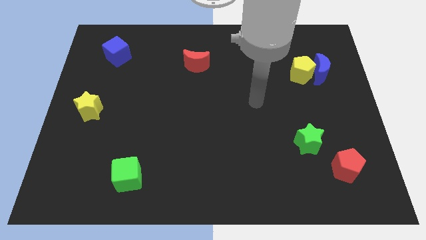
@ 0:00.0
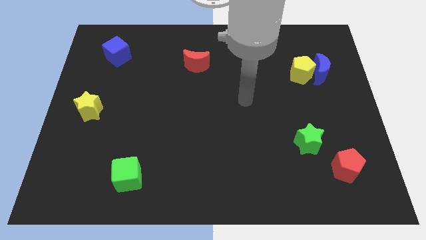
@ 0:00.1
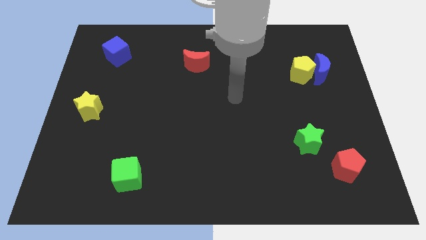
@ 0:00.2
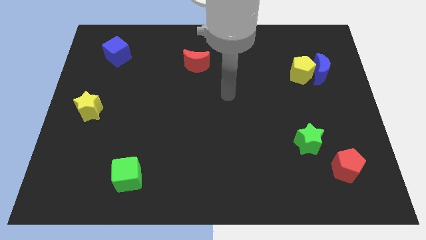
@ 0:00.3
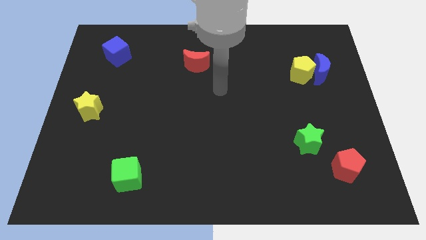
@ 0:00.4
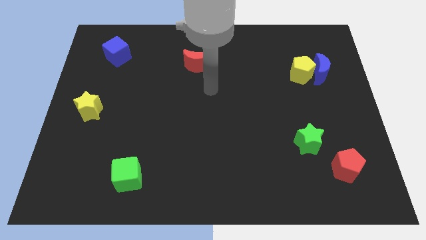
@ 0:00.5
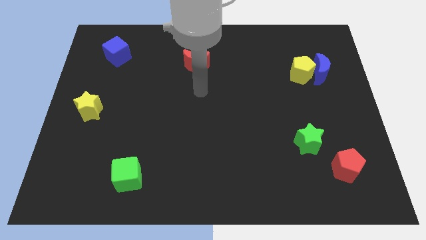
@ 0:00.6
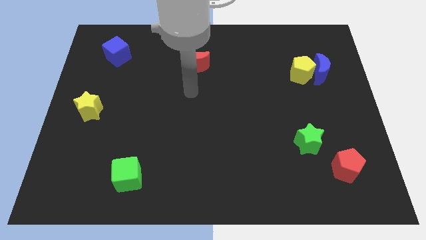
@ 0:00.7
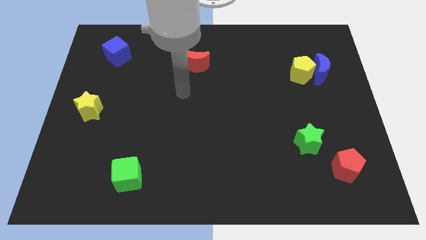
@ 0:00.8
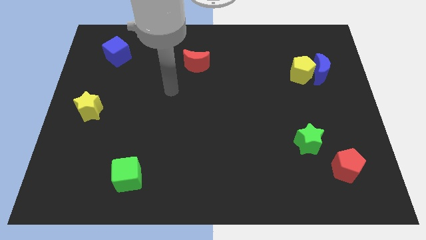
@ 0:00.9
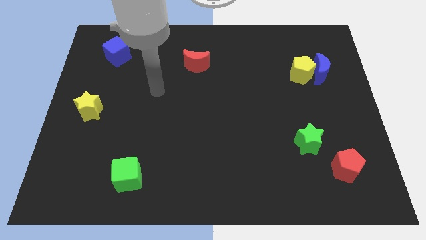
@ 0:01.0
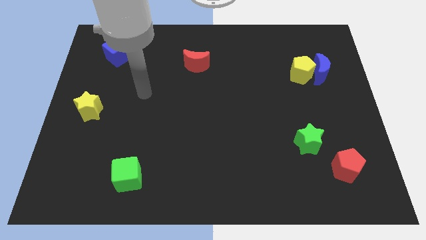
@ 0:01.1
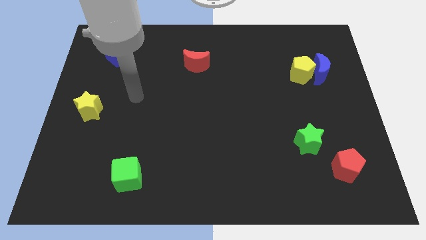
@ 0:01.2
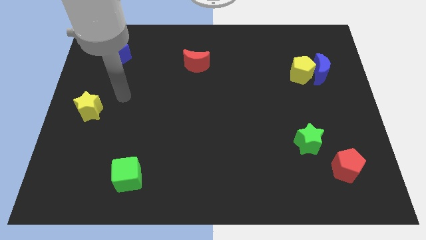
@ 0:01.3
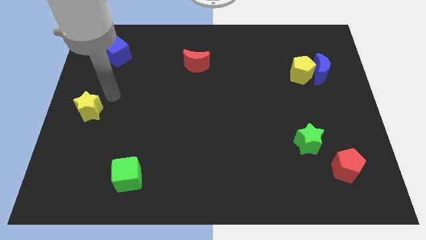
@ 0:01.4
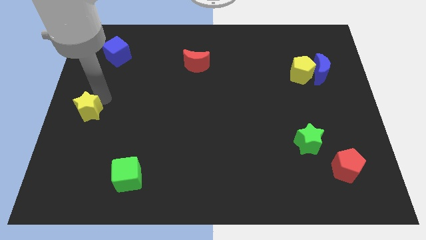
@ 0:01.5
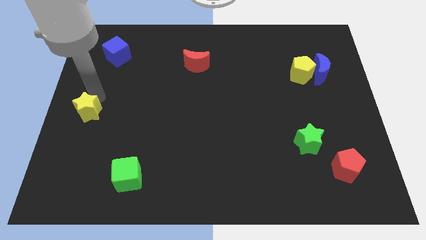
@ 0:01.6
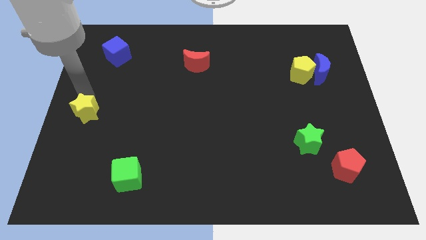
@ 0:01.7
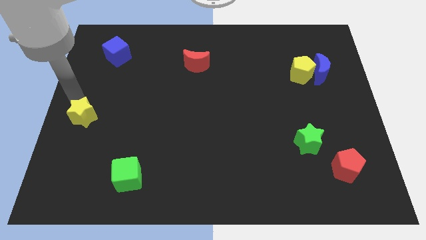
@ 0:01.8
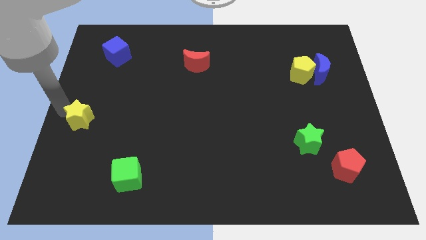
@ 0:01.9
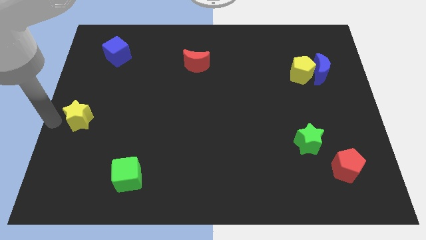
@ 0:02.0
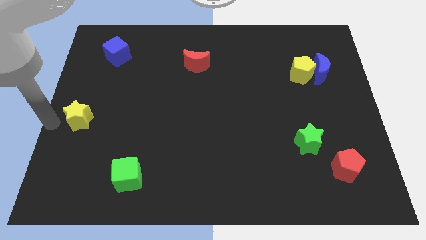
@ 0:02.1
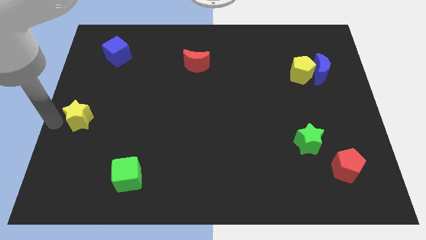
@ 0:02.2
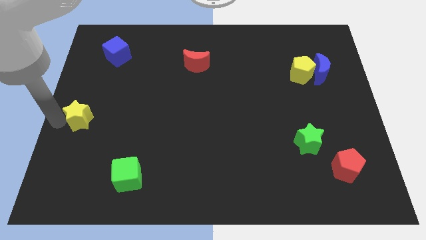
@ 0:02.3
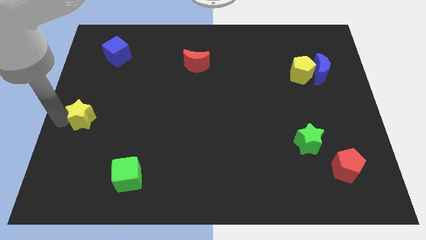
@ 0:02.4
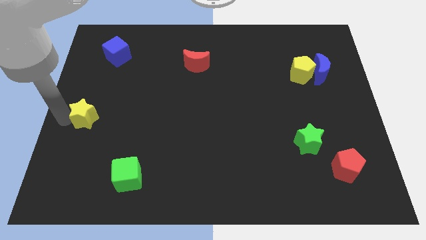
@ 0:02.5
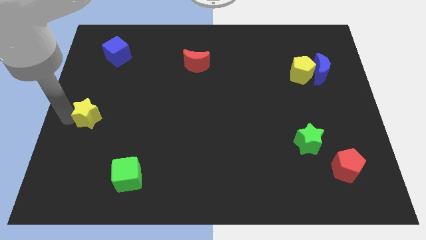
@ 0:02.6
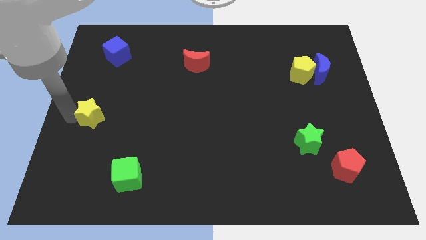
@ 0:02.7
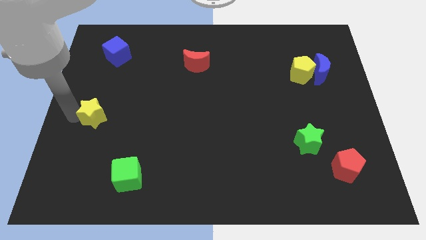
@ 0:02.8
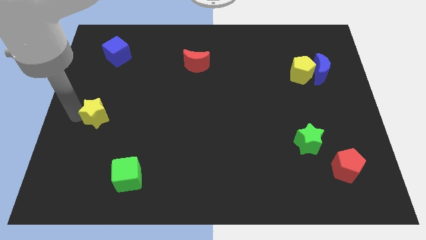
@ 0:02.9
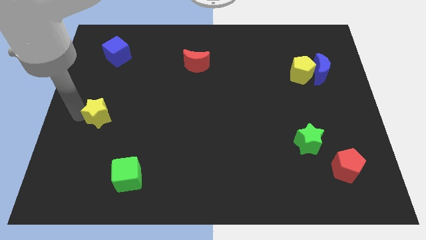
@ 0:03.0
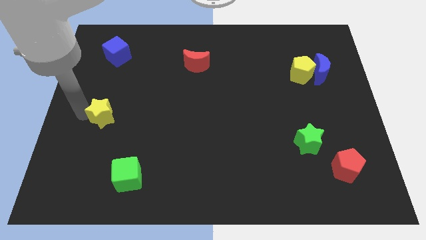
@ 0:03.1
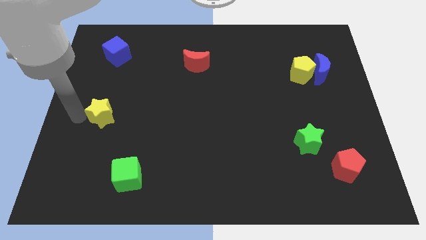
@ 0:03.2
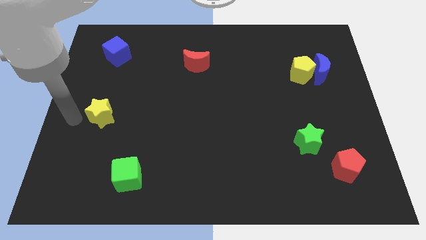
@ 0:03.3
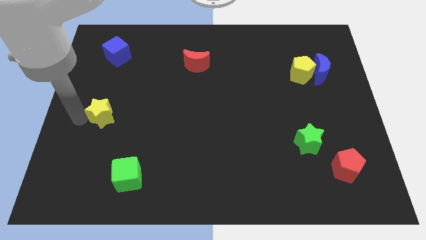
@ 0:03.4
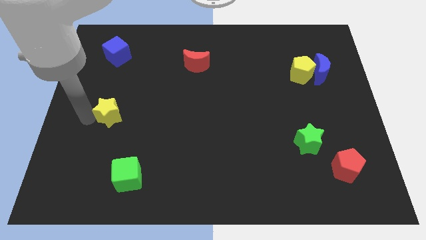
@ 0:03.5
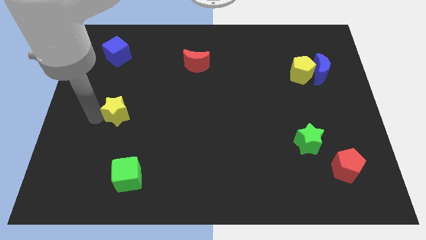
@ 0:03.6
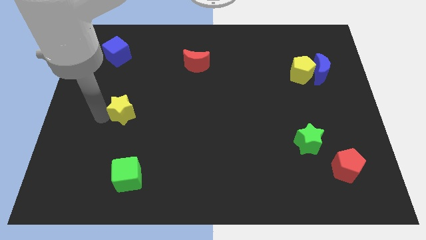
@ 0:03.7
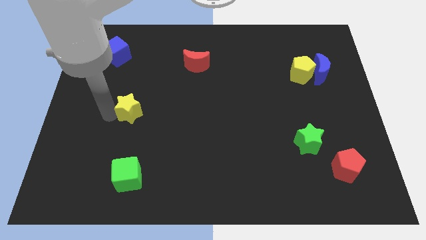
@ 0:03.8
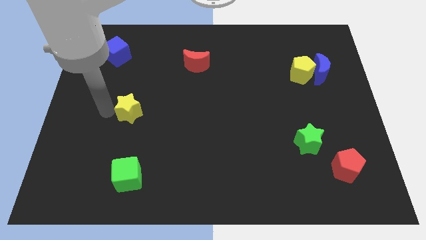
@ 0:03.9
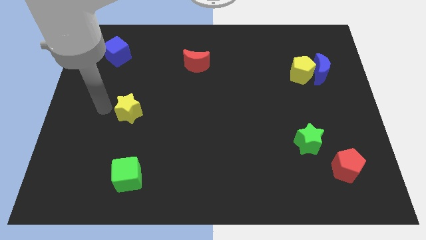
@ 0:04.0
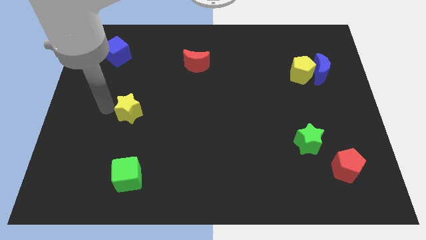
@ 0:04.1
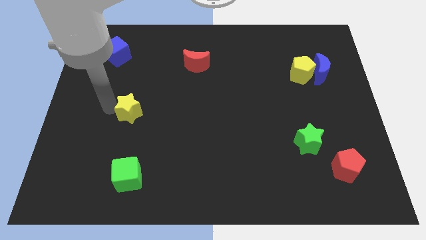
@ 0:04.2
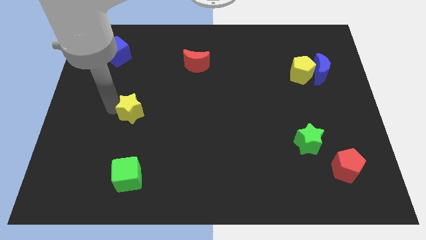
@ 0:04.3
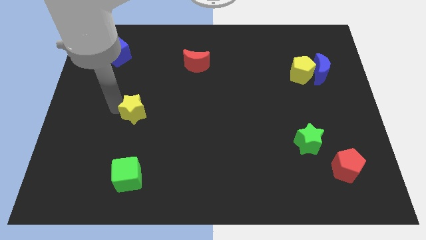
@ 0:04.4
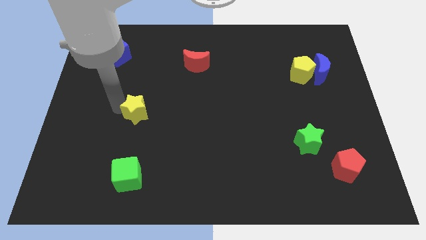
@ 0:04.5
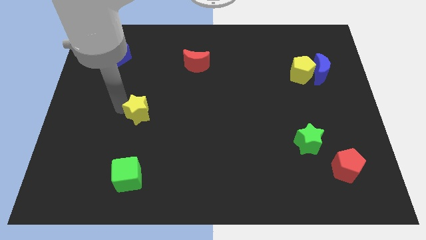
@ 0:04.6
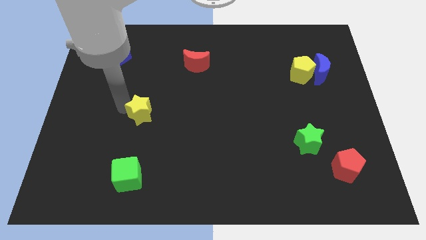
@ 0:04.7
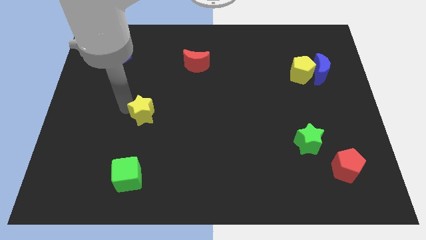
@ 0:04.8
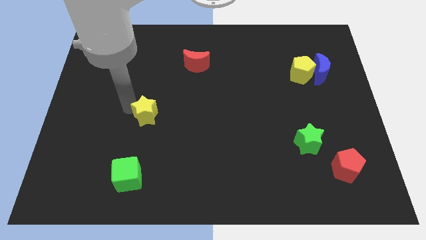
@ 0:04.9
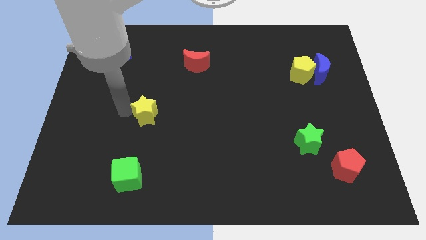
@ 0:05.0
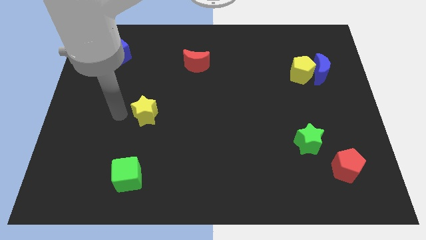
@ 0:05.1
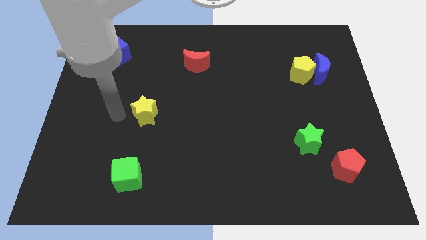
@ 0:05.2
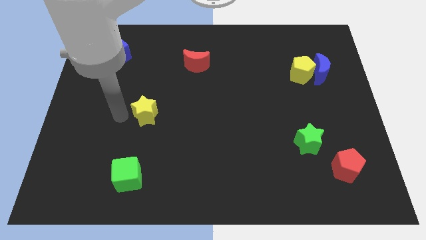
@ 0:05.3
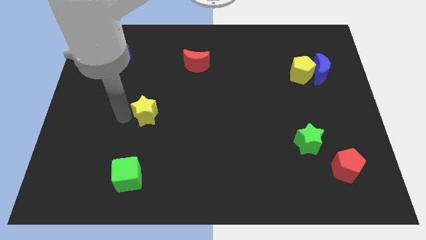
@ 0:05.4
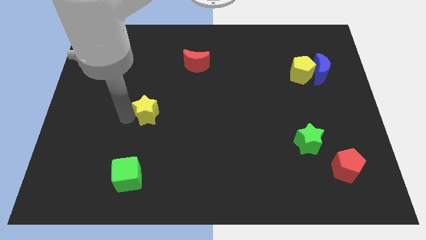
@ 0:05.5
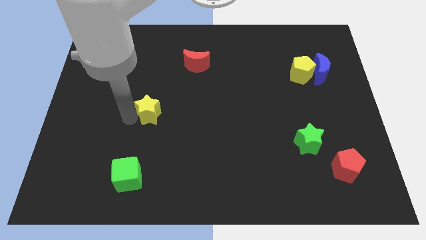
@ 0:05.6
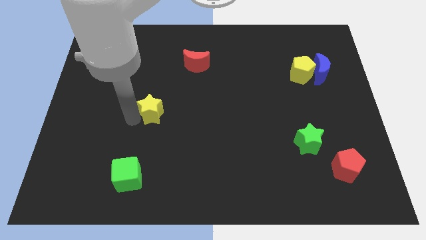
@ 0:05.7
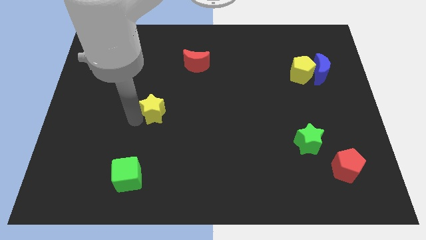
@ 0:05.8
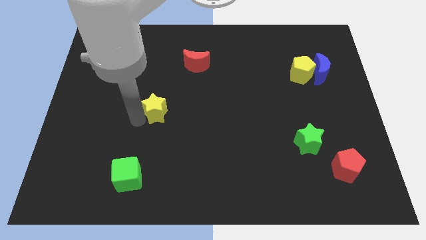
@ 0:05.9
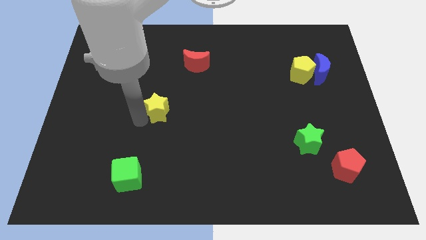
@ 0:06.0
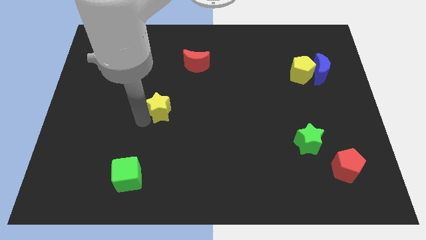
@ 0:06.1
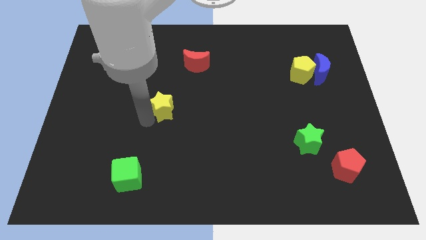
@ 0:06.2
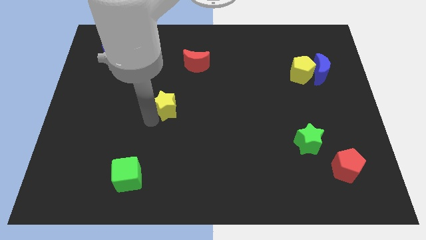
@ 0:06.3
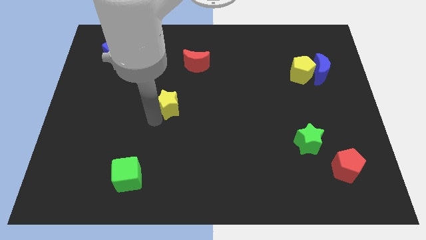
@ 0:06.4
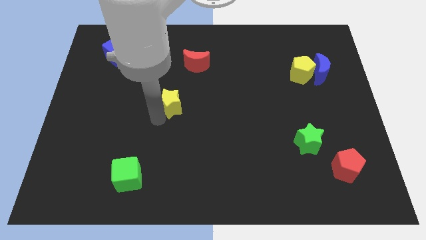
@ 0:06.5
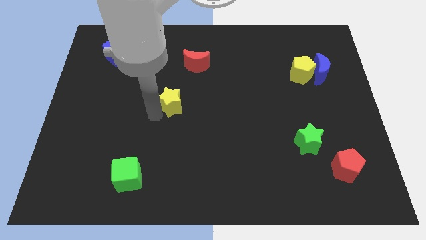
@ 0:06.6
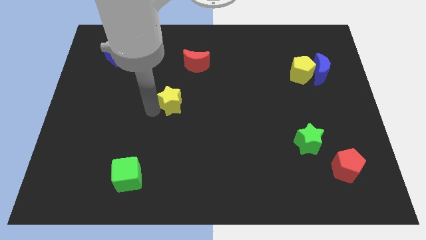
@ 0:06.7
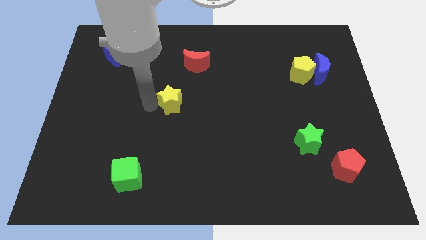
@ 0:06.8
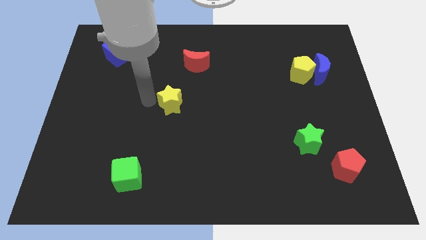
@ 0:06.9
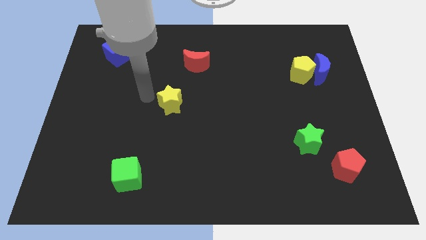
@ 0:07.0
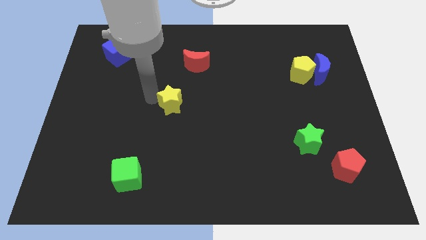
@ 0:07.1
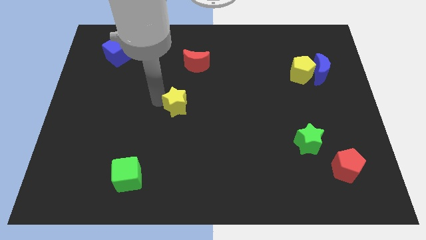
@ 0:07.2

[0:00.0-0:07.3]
slide the yellow star right

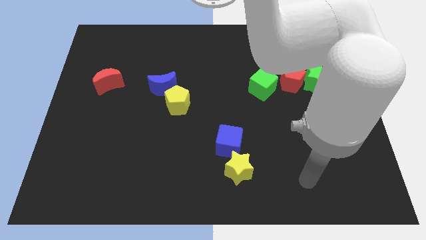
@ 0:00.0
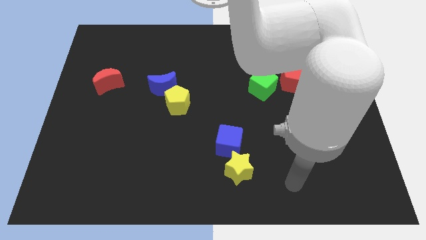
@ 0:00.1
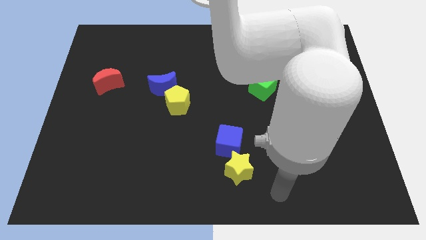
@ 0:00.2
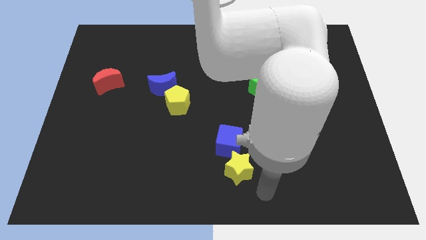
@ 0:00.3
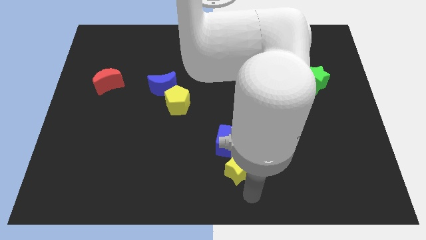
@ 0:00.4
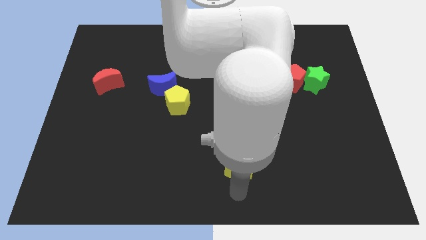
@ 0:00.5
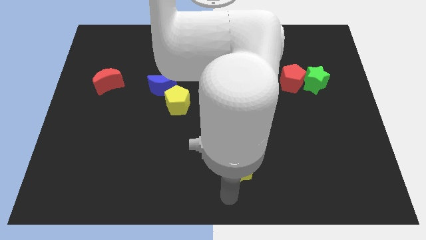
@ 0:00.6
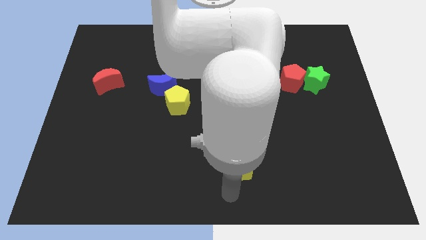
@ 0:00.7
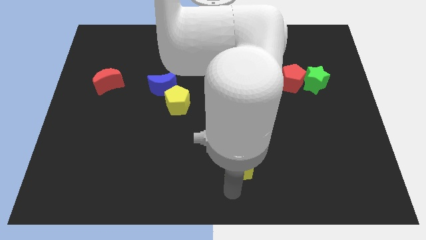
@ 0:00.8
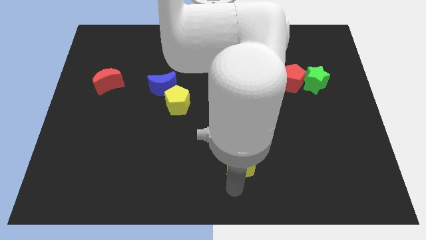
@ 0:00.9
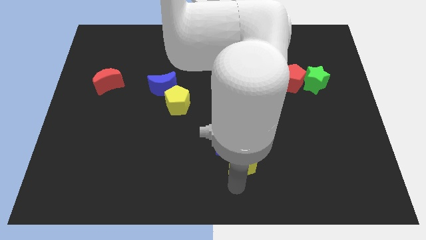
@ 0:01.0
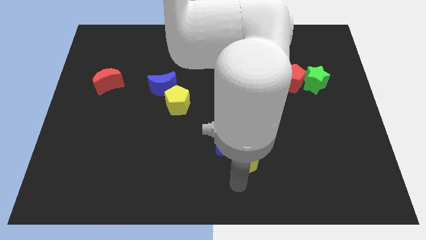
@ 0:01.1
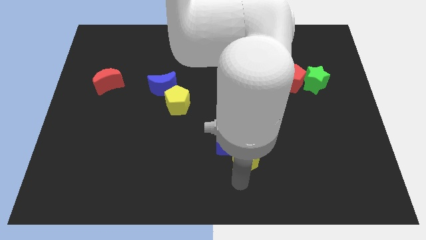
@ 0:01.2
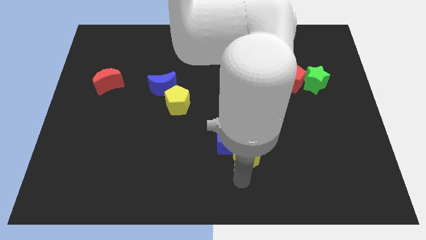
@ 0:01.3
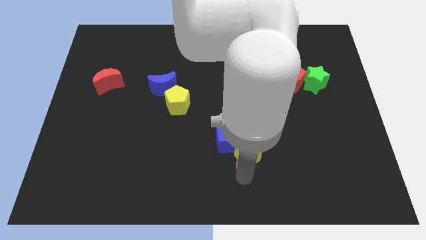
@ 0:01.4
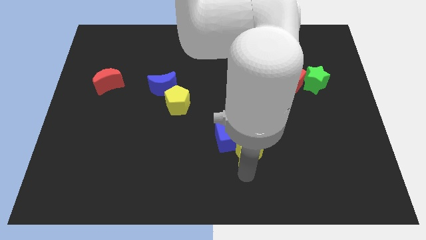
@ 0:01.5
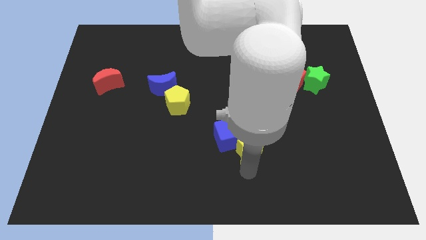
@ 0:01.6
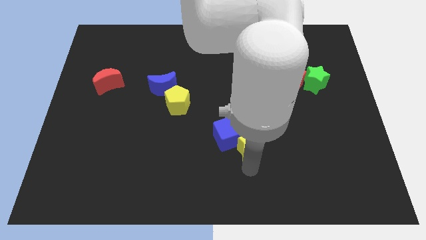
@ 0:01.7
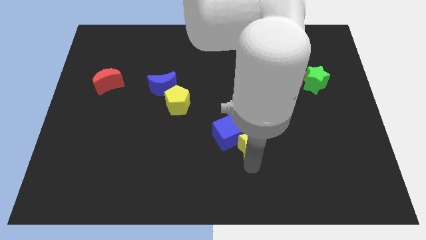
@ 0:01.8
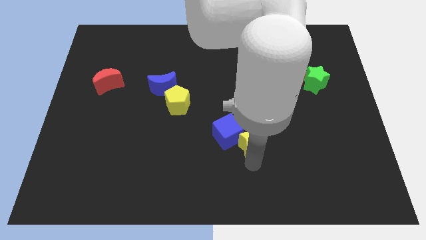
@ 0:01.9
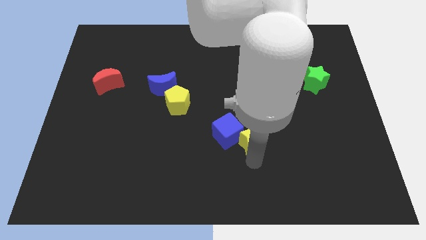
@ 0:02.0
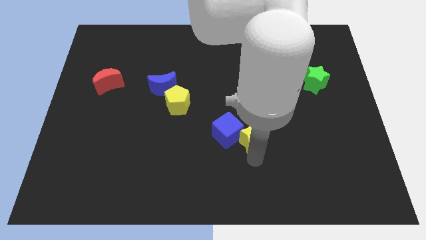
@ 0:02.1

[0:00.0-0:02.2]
slide the yellow star slightly upwards
